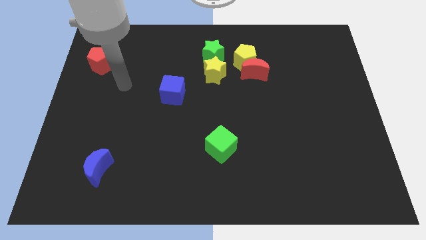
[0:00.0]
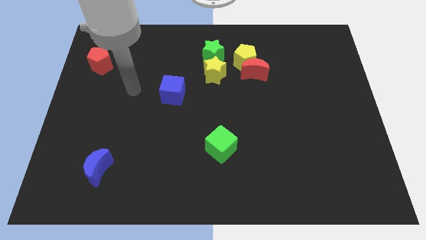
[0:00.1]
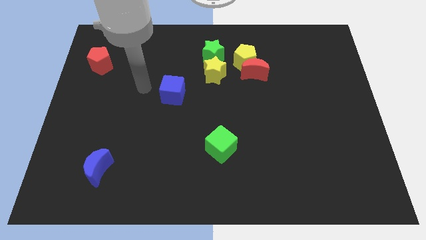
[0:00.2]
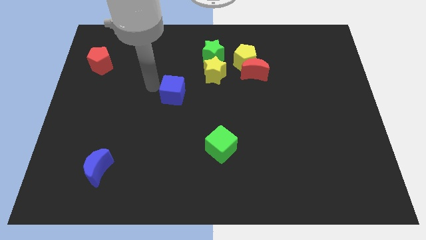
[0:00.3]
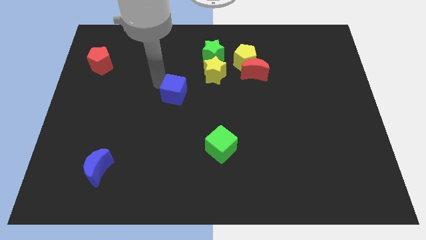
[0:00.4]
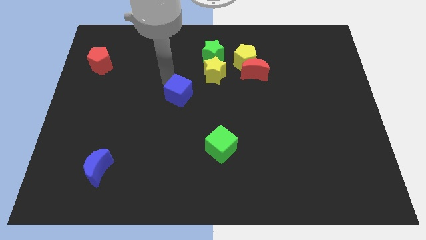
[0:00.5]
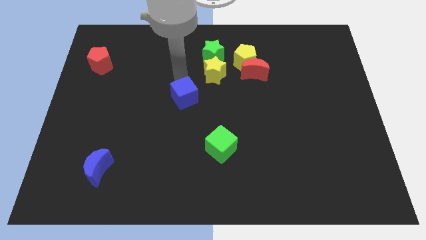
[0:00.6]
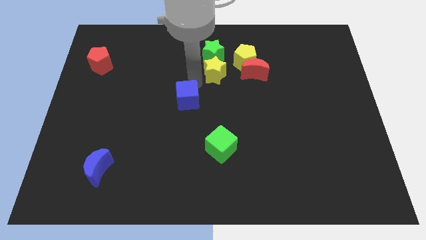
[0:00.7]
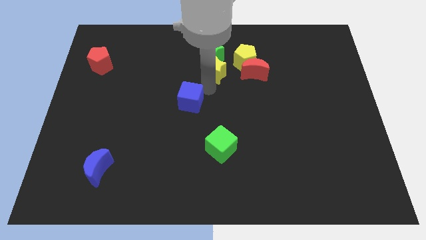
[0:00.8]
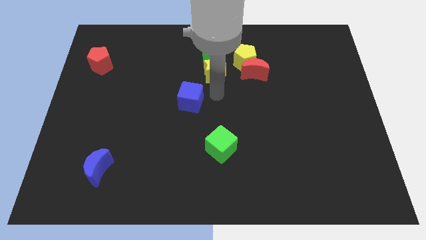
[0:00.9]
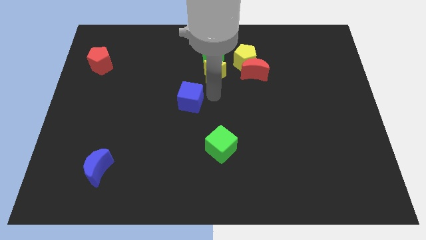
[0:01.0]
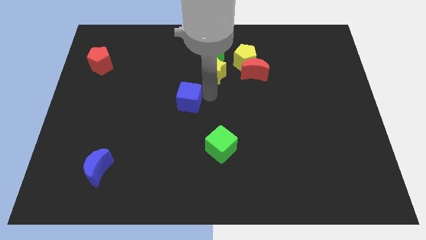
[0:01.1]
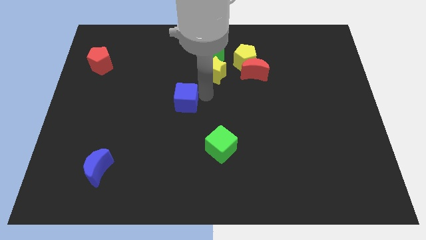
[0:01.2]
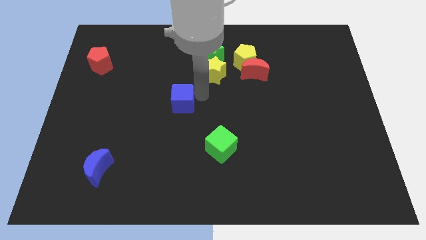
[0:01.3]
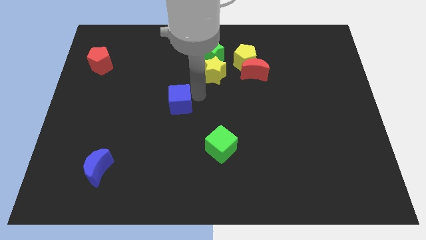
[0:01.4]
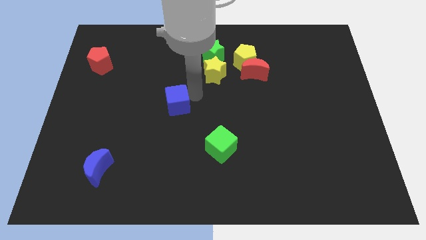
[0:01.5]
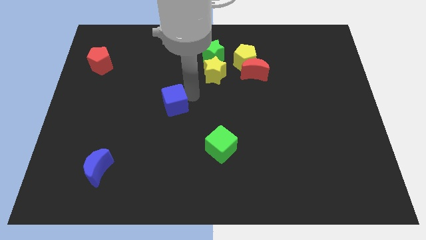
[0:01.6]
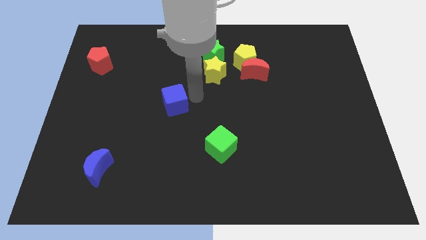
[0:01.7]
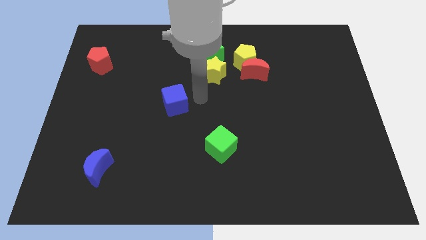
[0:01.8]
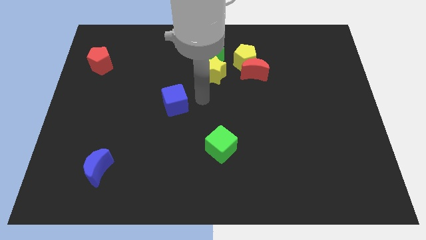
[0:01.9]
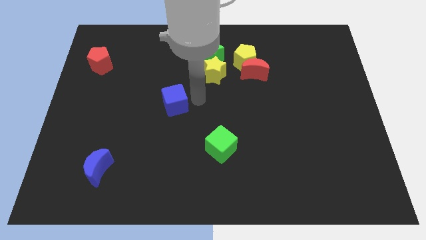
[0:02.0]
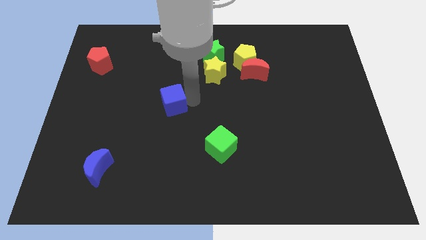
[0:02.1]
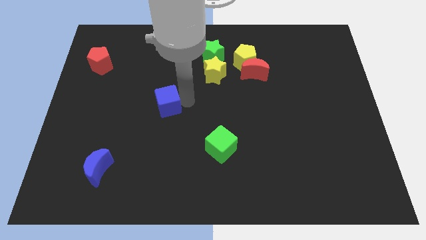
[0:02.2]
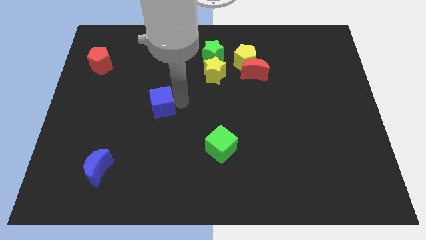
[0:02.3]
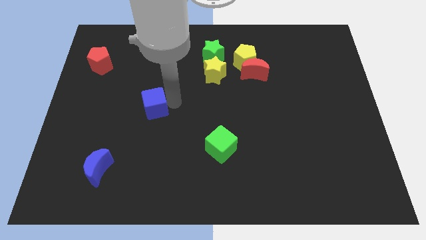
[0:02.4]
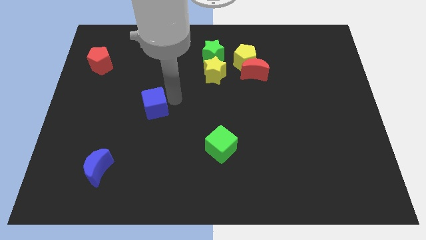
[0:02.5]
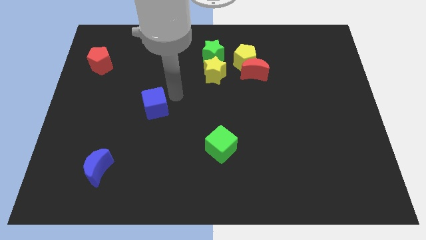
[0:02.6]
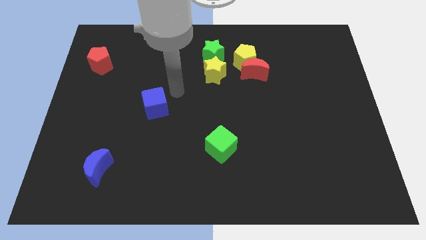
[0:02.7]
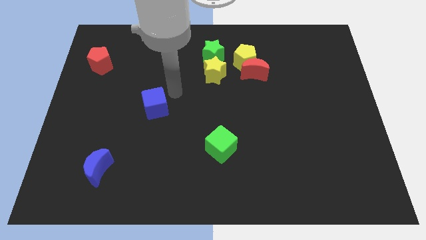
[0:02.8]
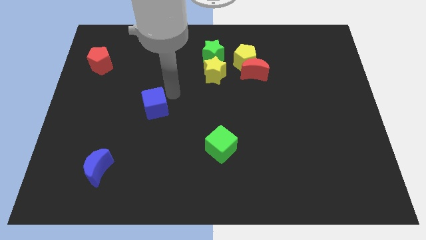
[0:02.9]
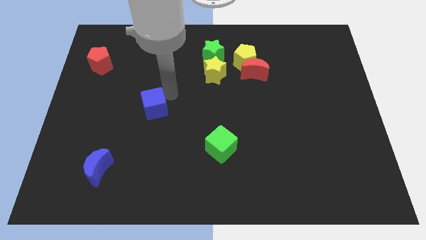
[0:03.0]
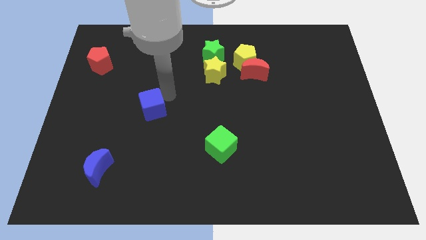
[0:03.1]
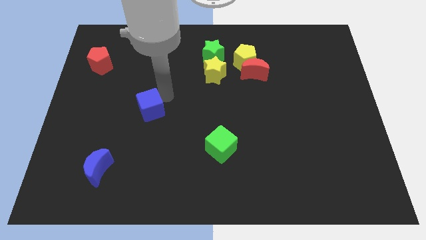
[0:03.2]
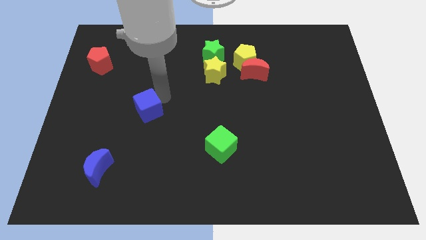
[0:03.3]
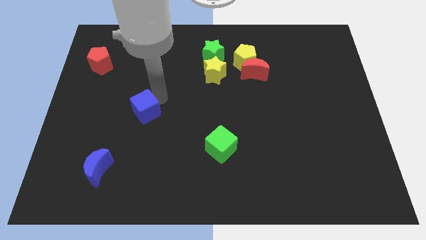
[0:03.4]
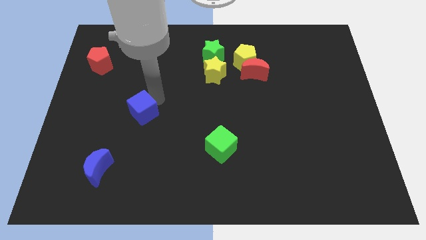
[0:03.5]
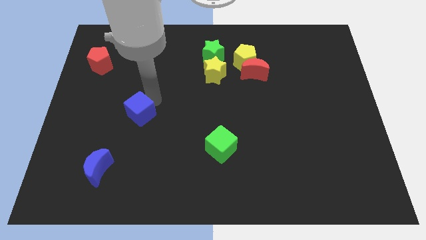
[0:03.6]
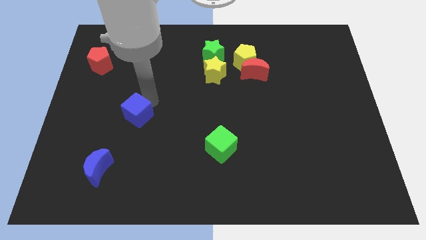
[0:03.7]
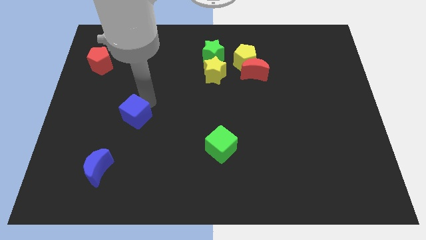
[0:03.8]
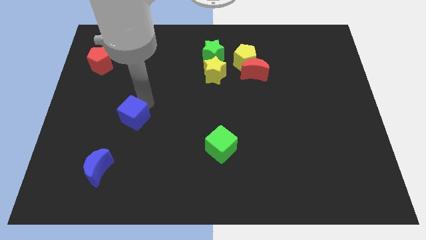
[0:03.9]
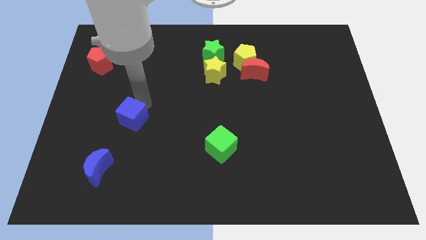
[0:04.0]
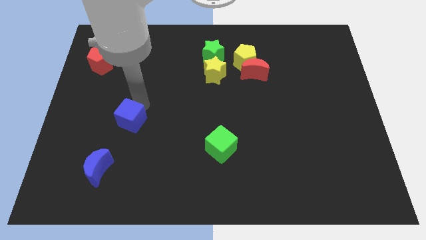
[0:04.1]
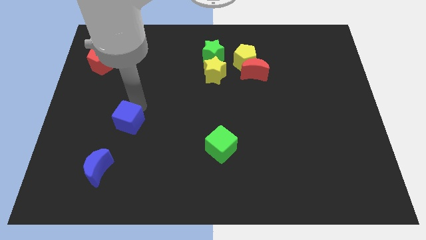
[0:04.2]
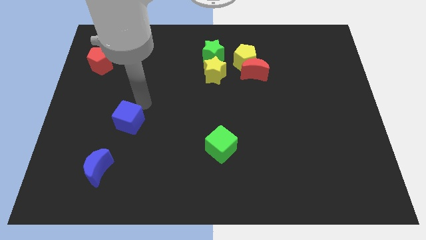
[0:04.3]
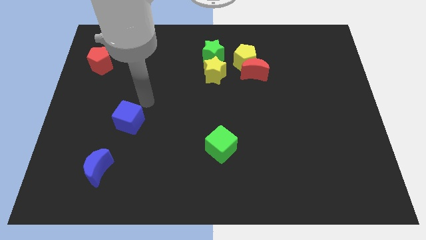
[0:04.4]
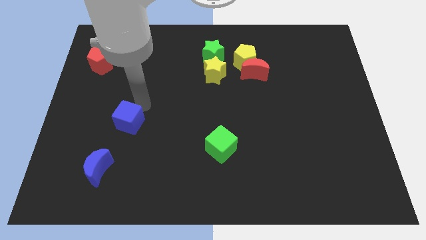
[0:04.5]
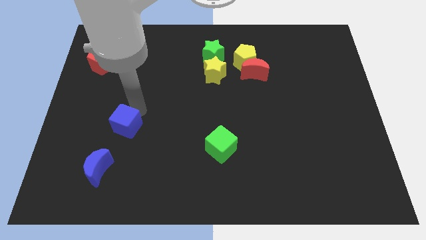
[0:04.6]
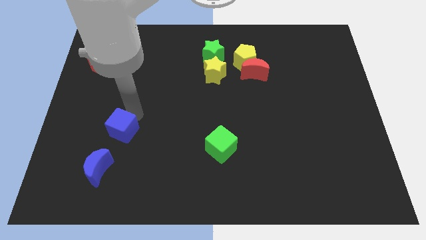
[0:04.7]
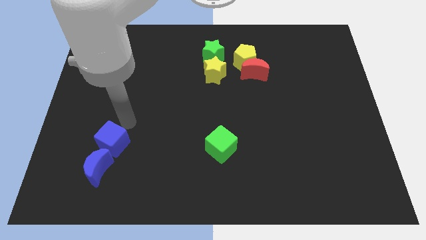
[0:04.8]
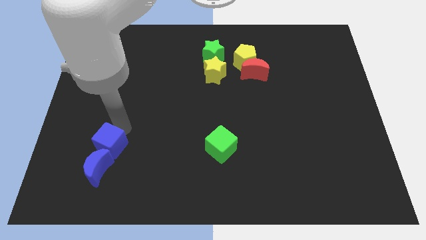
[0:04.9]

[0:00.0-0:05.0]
slide the blue cube next to the blue moon

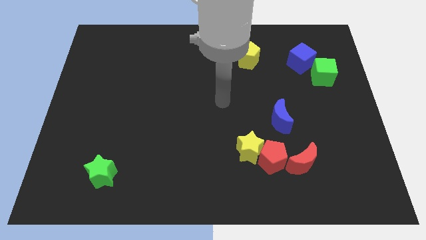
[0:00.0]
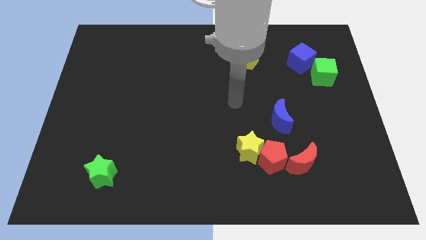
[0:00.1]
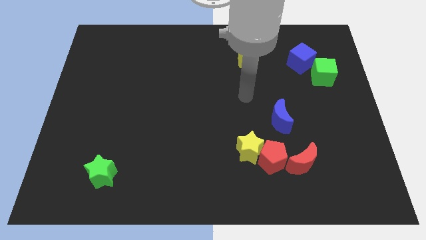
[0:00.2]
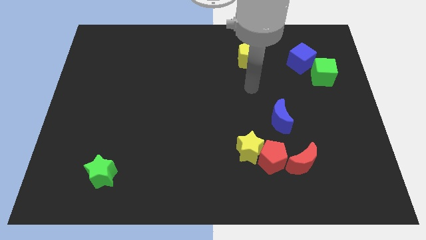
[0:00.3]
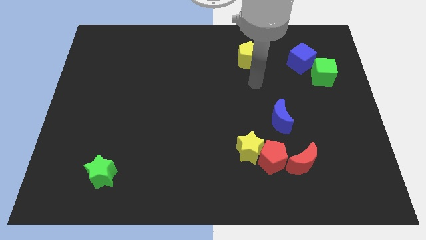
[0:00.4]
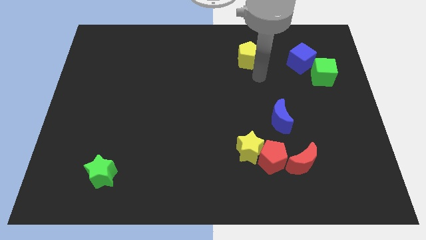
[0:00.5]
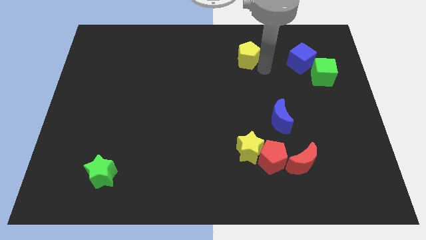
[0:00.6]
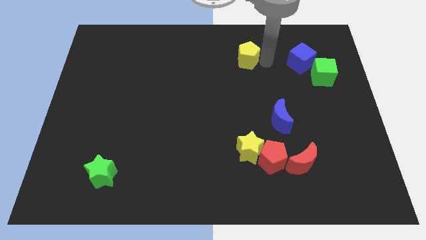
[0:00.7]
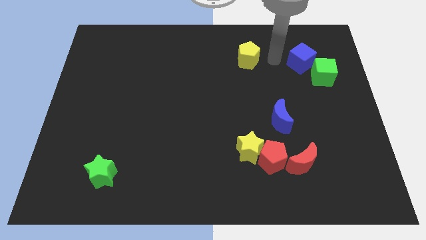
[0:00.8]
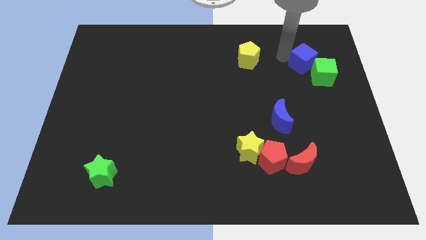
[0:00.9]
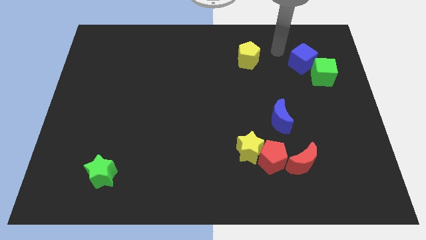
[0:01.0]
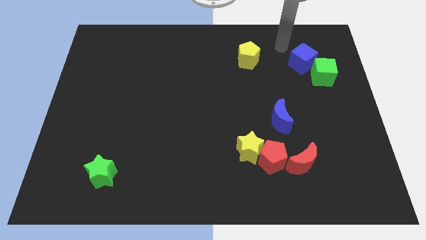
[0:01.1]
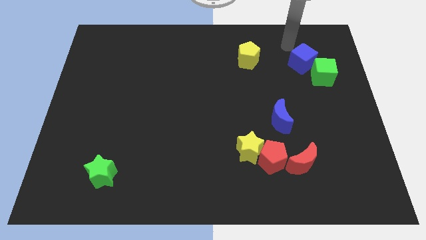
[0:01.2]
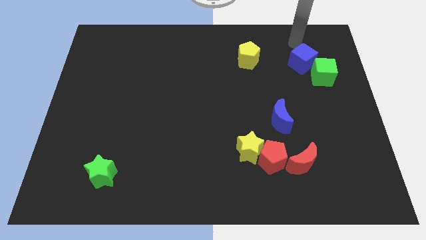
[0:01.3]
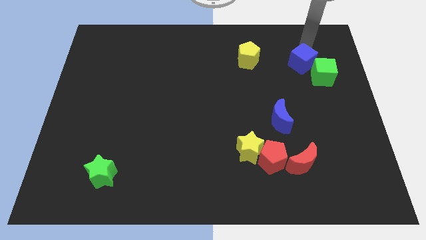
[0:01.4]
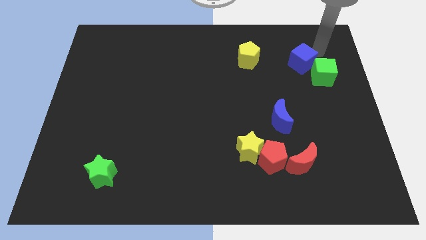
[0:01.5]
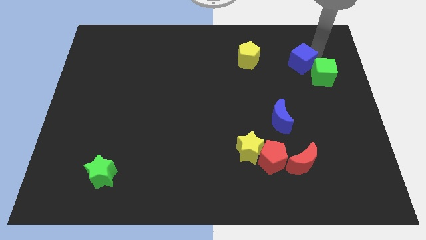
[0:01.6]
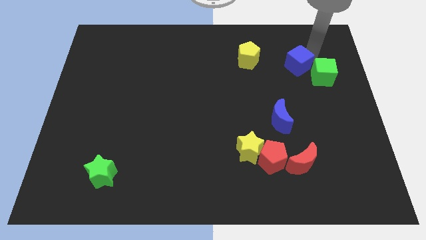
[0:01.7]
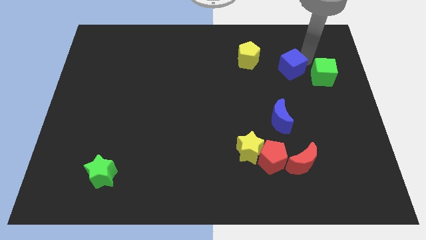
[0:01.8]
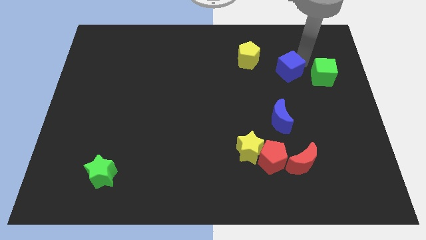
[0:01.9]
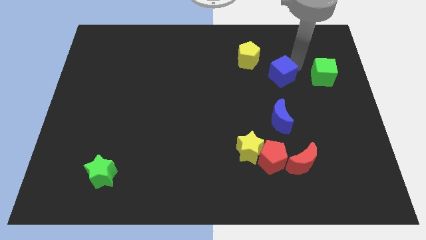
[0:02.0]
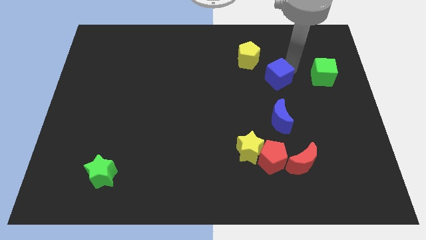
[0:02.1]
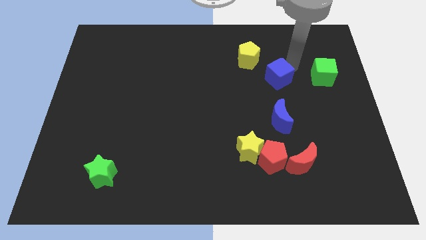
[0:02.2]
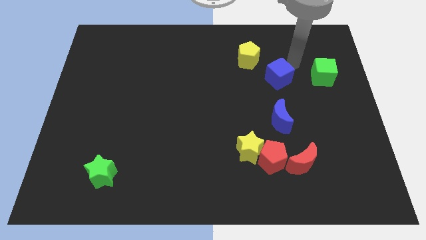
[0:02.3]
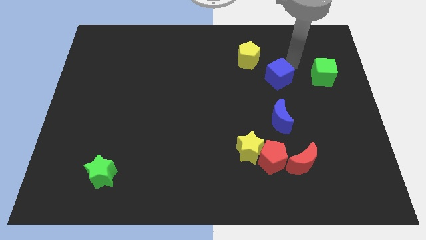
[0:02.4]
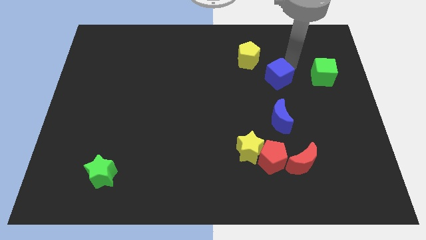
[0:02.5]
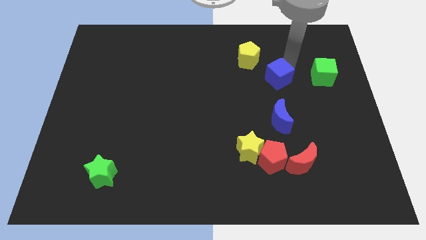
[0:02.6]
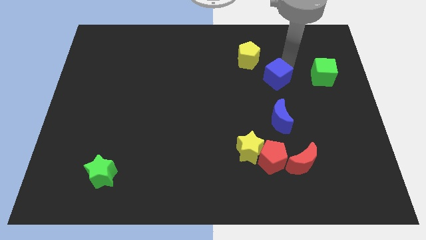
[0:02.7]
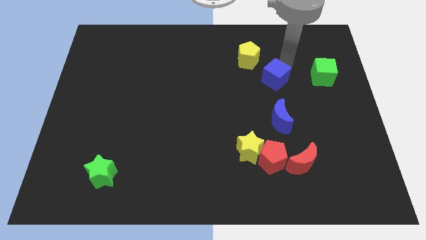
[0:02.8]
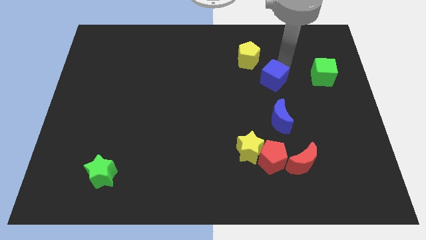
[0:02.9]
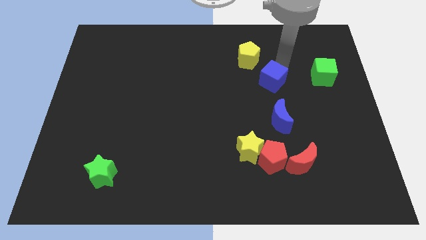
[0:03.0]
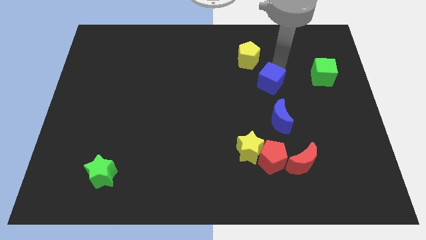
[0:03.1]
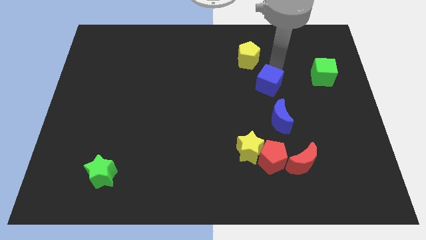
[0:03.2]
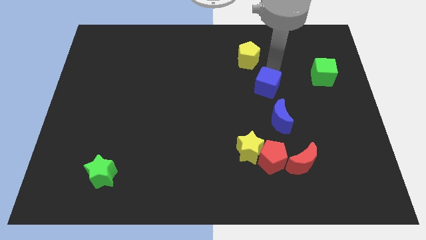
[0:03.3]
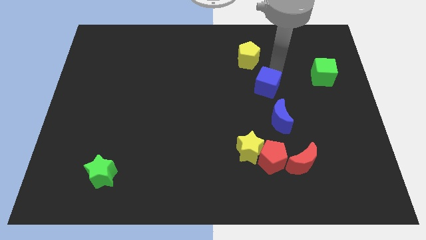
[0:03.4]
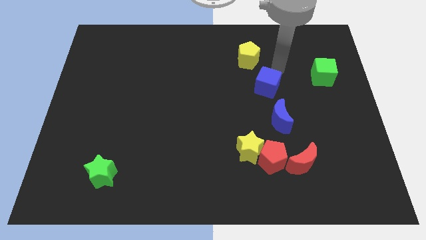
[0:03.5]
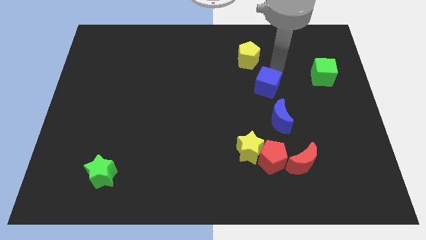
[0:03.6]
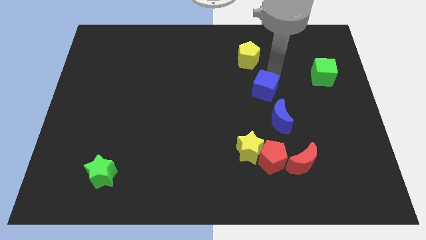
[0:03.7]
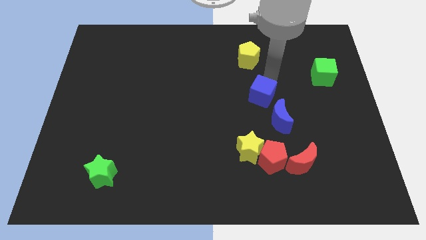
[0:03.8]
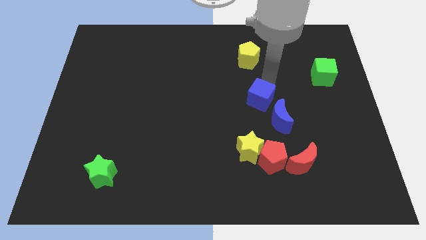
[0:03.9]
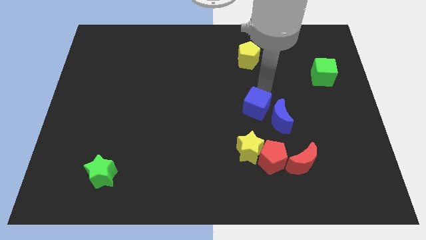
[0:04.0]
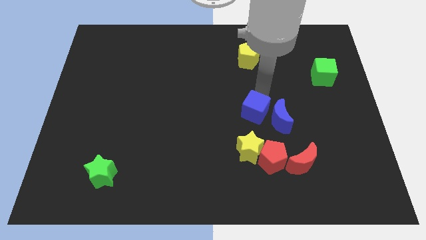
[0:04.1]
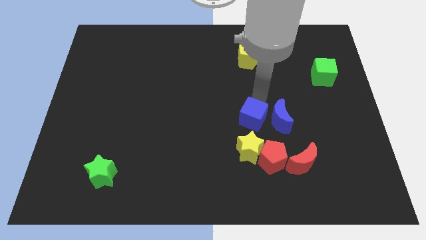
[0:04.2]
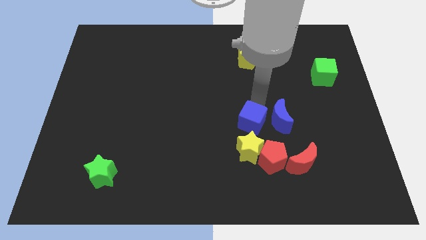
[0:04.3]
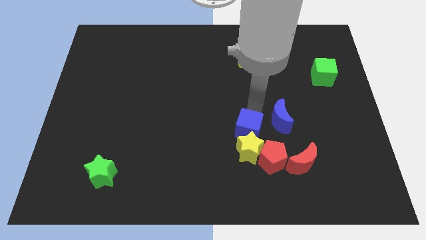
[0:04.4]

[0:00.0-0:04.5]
move the blue cube to the yellow star
